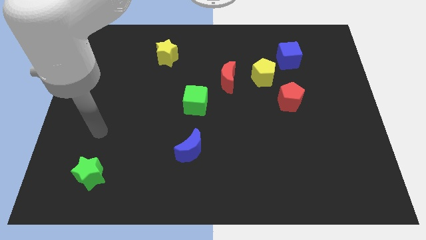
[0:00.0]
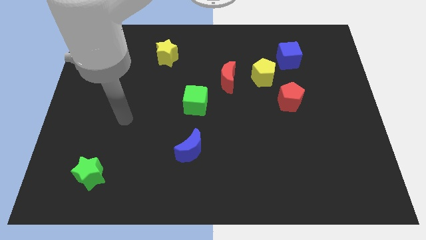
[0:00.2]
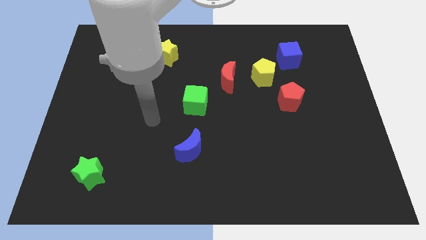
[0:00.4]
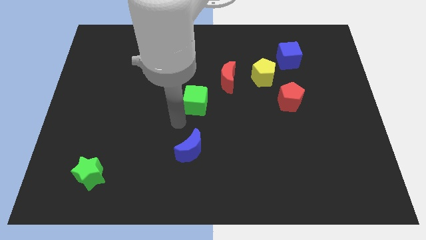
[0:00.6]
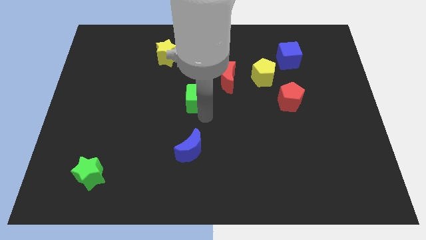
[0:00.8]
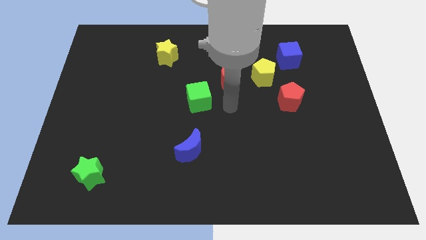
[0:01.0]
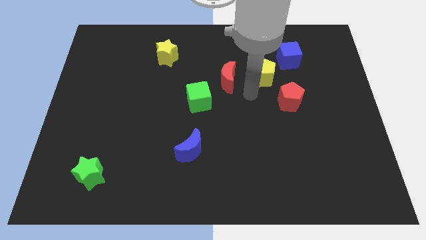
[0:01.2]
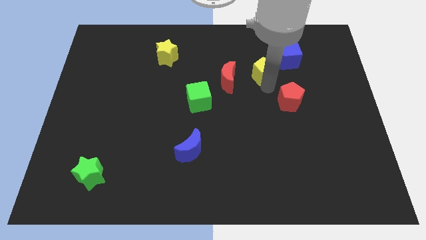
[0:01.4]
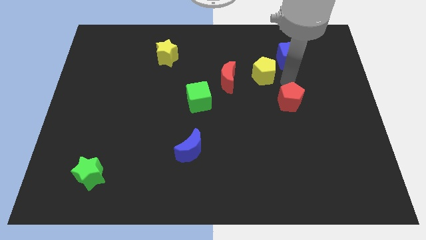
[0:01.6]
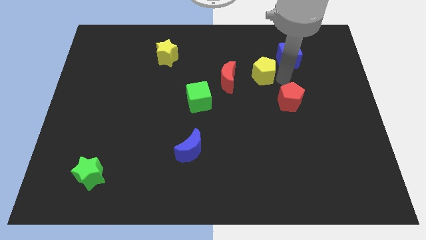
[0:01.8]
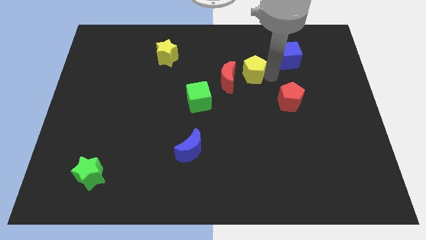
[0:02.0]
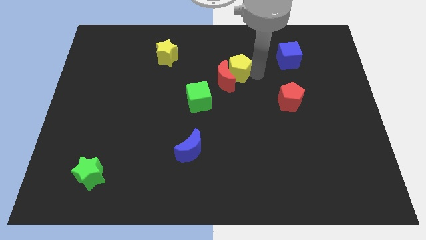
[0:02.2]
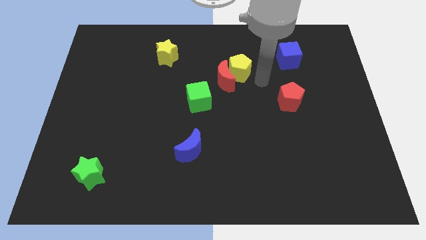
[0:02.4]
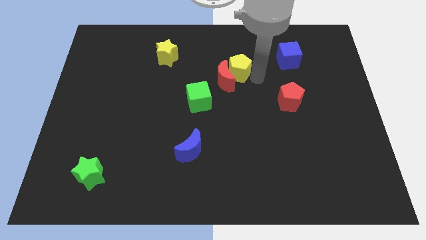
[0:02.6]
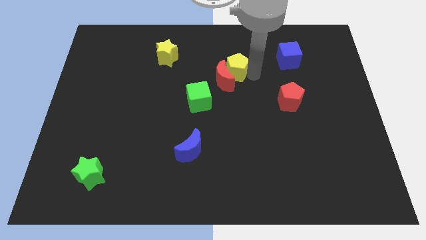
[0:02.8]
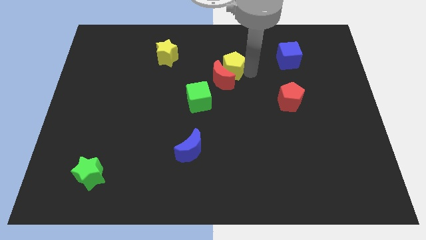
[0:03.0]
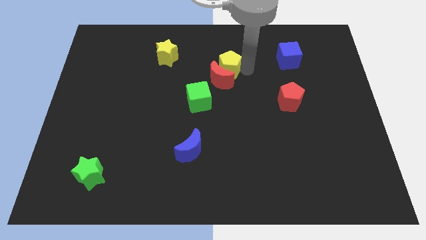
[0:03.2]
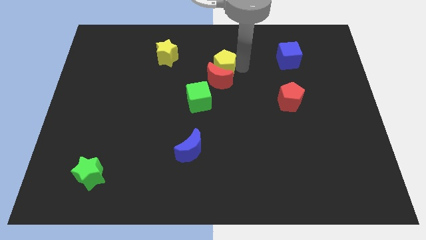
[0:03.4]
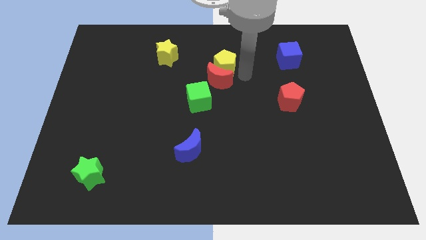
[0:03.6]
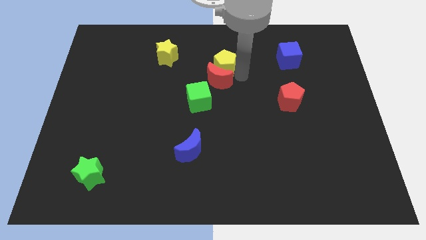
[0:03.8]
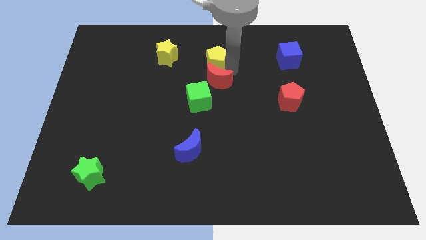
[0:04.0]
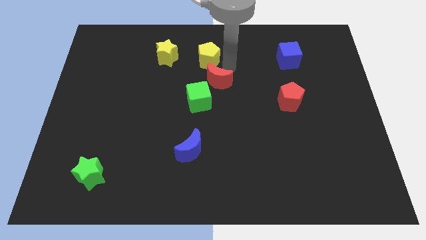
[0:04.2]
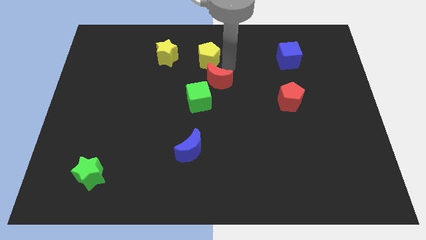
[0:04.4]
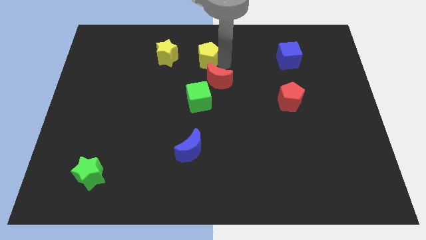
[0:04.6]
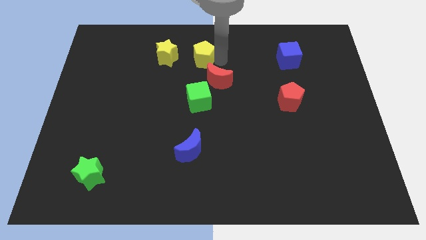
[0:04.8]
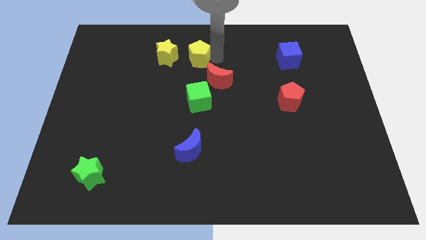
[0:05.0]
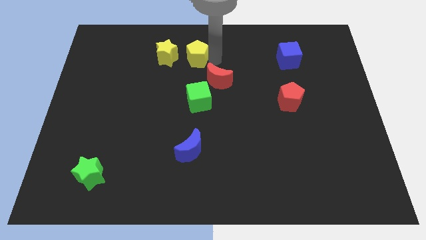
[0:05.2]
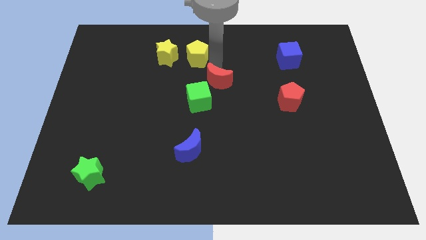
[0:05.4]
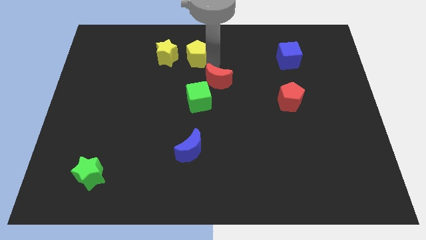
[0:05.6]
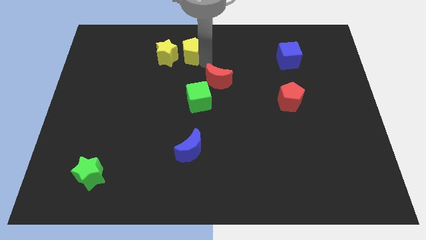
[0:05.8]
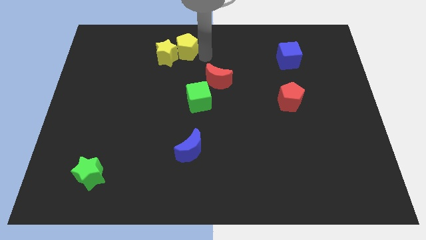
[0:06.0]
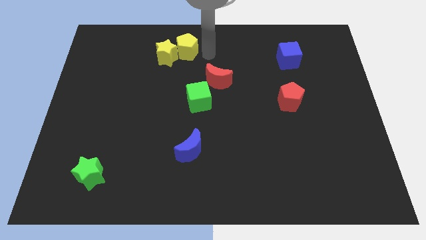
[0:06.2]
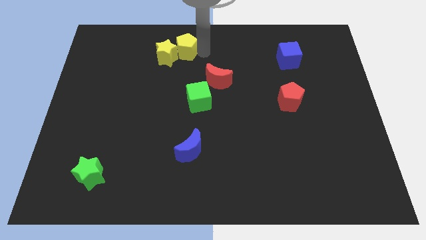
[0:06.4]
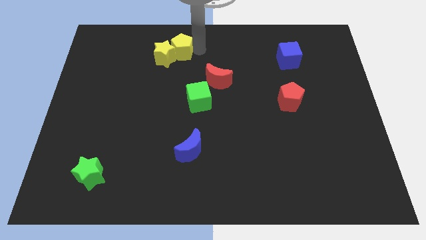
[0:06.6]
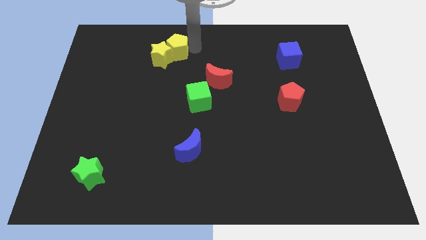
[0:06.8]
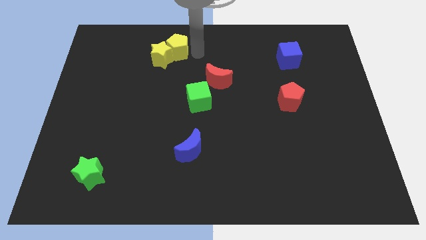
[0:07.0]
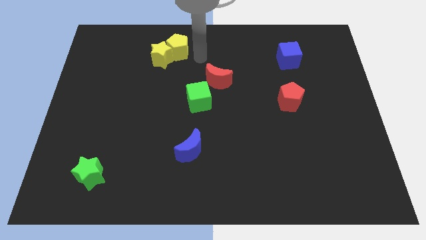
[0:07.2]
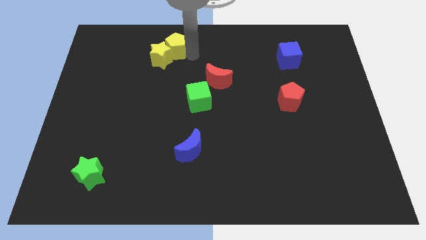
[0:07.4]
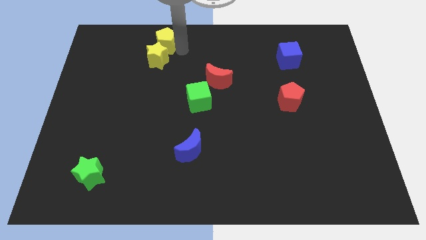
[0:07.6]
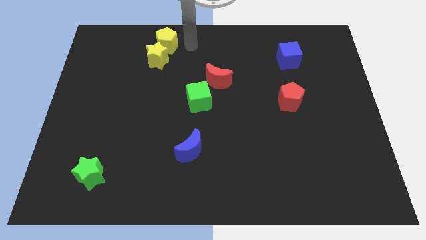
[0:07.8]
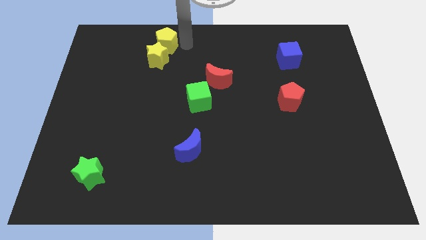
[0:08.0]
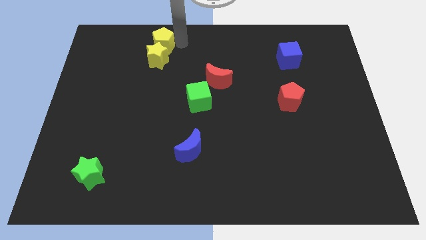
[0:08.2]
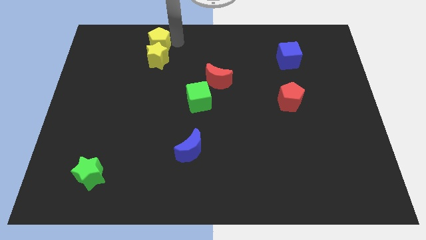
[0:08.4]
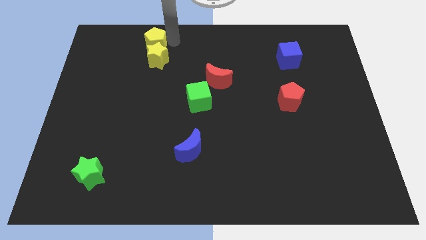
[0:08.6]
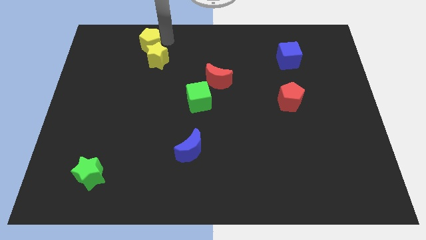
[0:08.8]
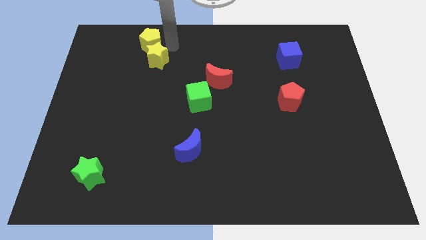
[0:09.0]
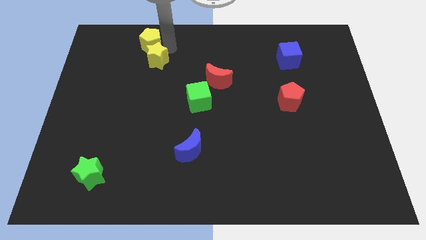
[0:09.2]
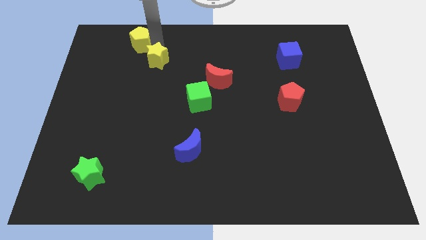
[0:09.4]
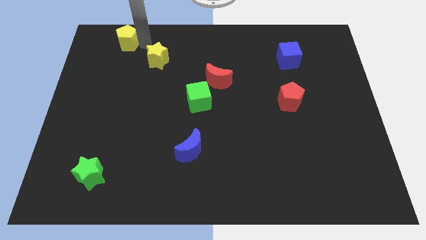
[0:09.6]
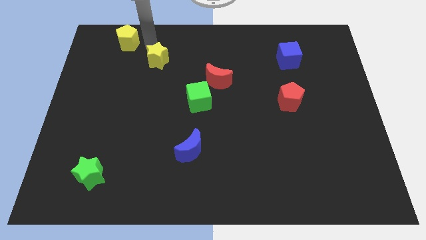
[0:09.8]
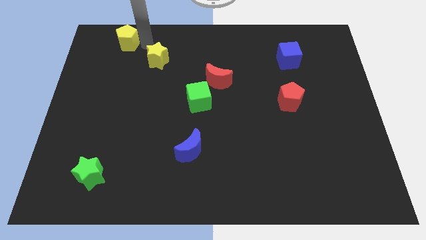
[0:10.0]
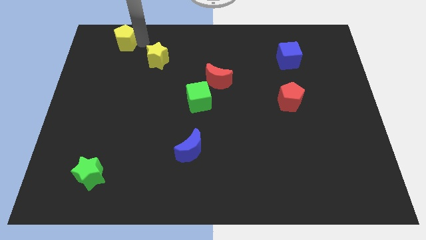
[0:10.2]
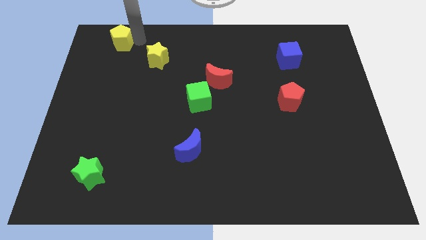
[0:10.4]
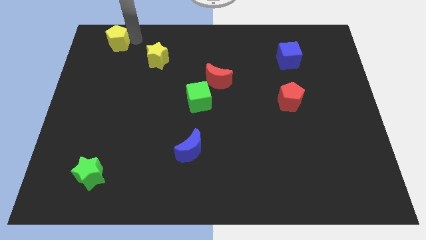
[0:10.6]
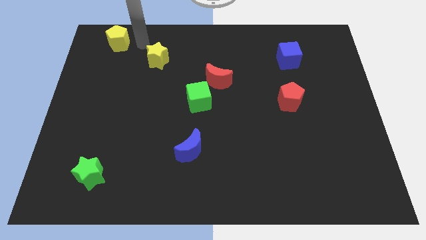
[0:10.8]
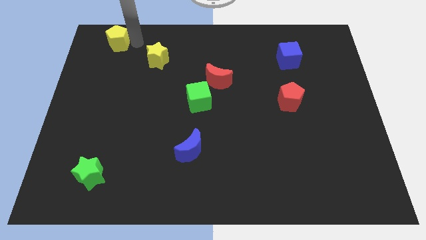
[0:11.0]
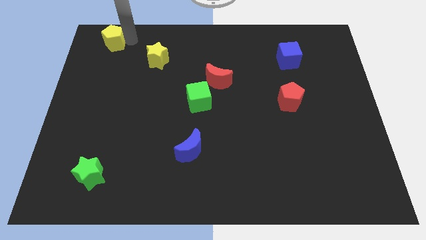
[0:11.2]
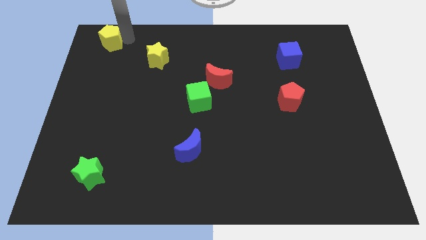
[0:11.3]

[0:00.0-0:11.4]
put the yellow pentagon to the top left
